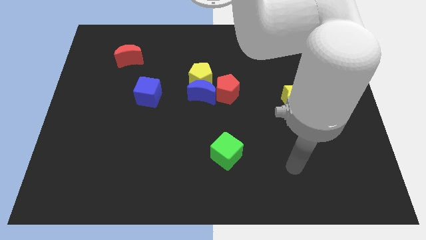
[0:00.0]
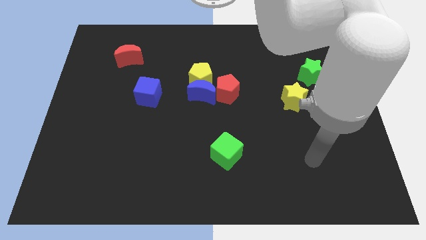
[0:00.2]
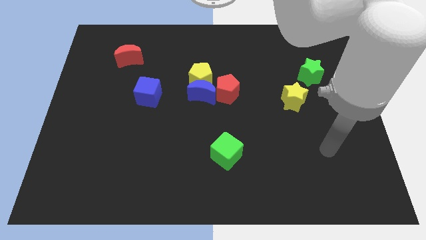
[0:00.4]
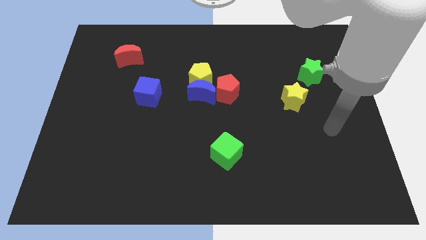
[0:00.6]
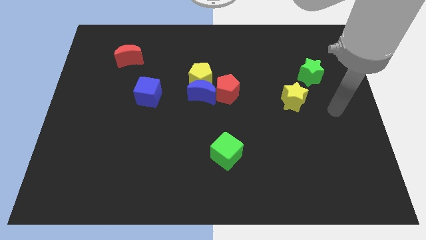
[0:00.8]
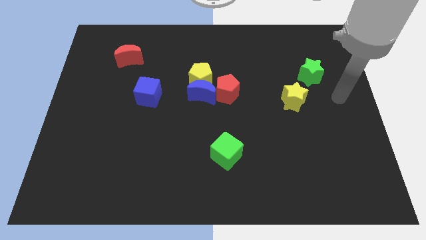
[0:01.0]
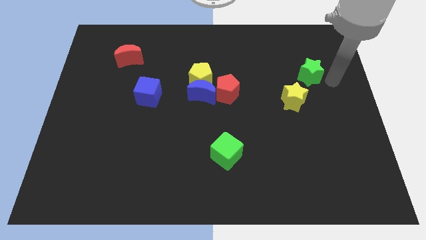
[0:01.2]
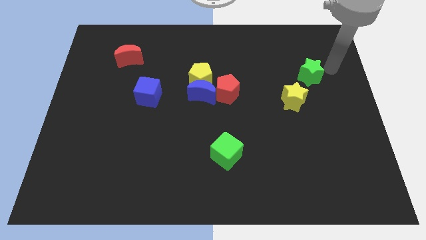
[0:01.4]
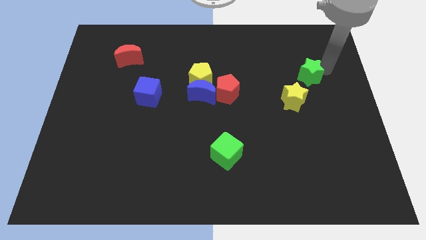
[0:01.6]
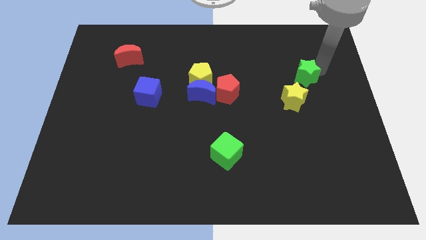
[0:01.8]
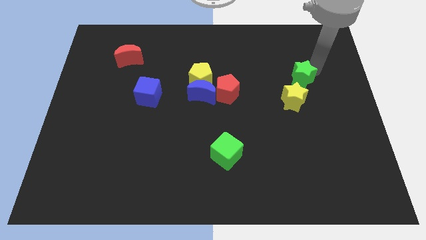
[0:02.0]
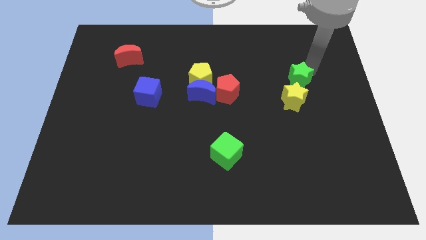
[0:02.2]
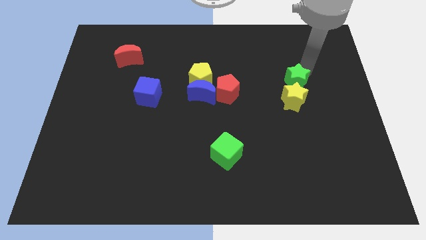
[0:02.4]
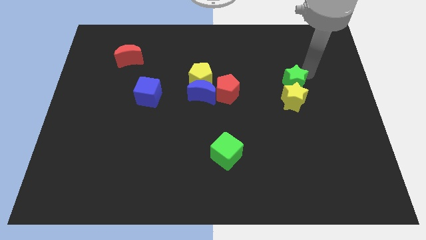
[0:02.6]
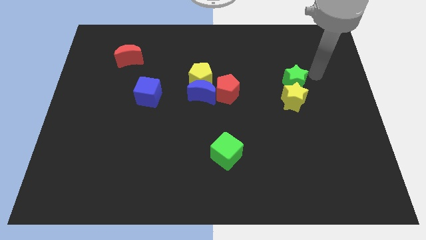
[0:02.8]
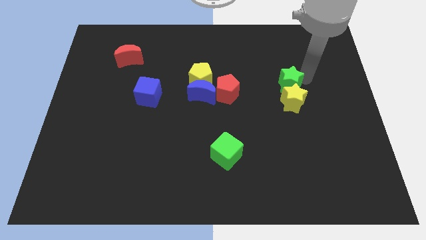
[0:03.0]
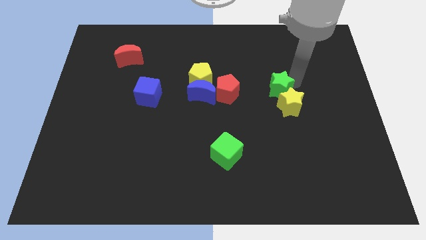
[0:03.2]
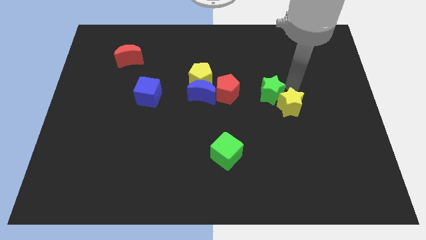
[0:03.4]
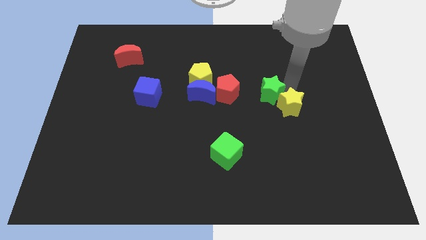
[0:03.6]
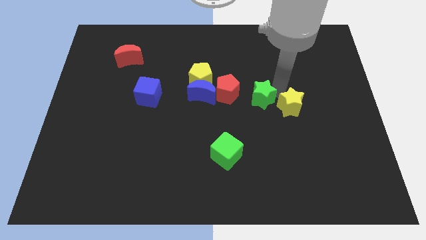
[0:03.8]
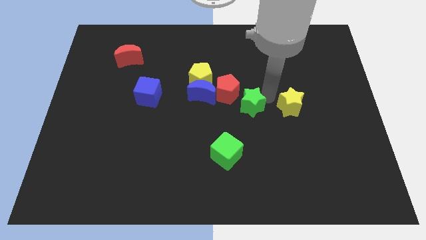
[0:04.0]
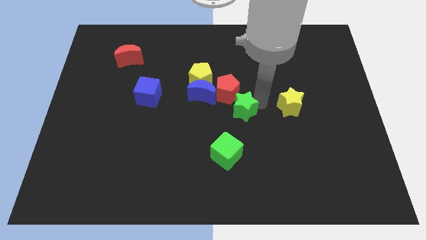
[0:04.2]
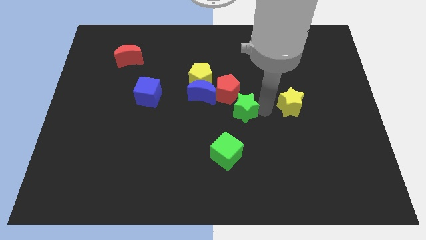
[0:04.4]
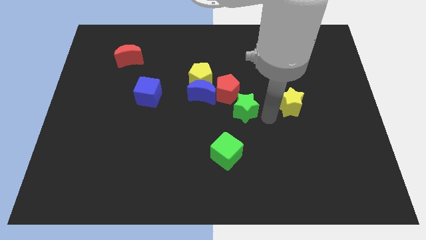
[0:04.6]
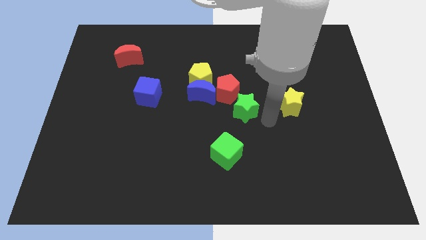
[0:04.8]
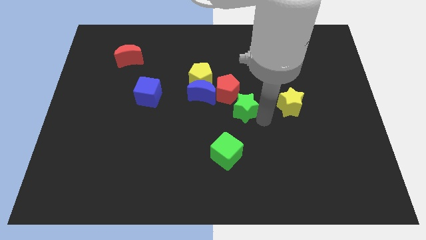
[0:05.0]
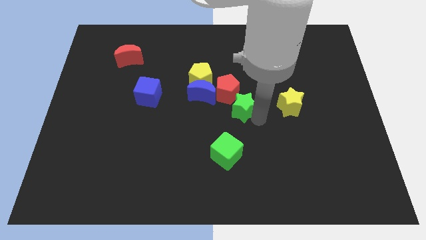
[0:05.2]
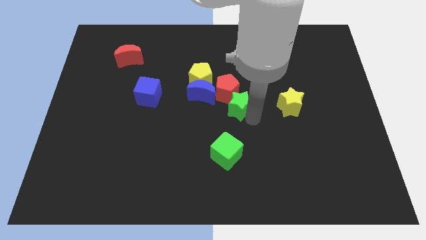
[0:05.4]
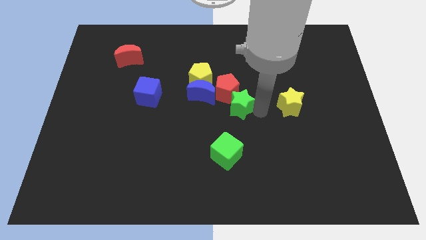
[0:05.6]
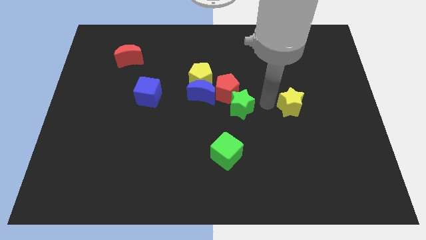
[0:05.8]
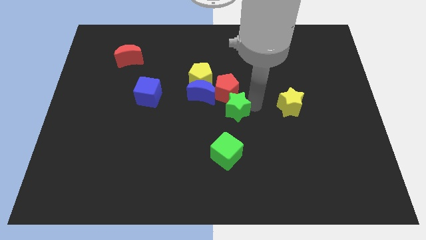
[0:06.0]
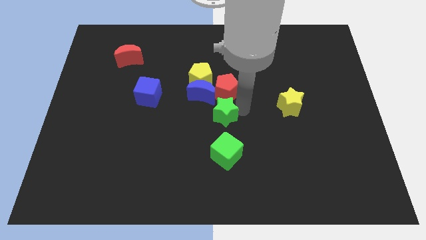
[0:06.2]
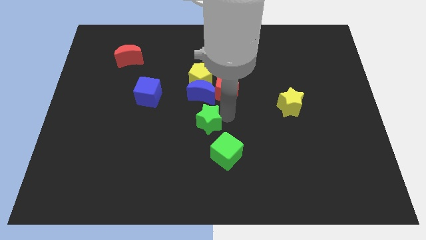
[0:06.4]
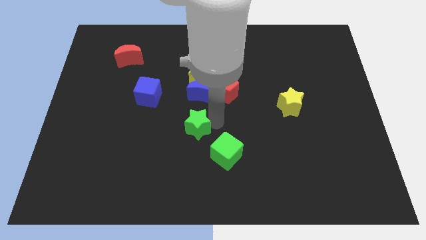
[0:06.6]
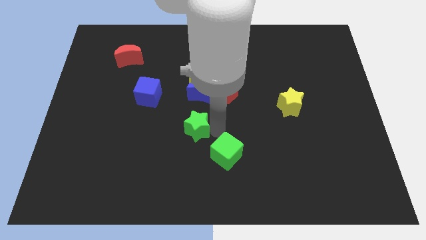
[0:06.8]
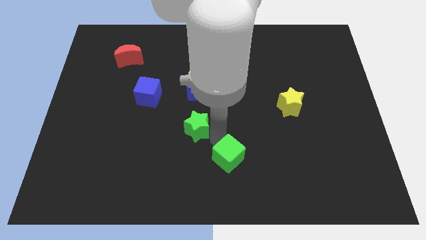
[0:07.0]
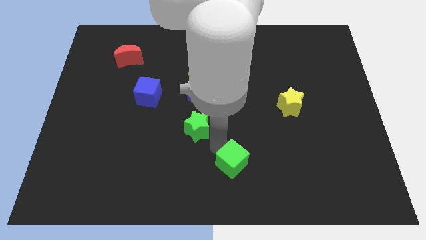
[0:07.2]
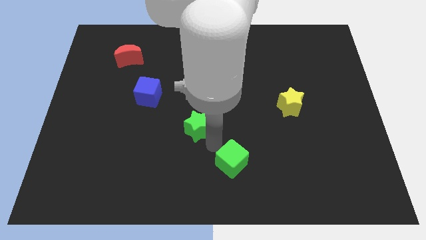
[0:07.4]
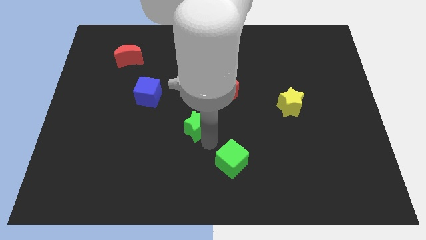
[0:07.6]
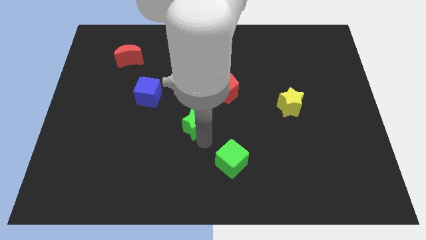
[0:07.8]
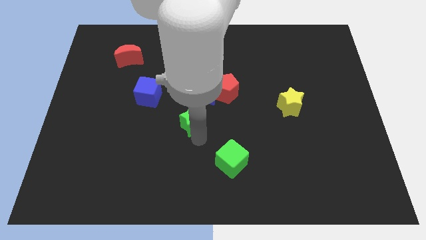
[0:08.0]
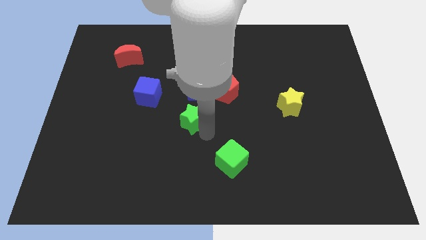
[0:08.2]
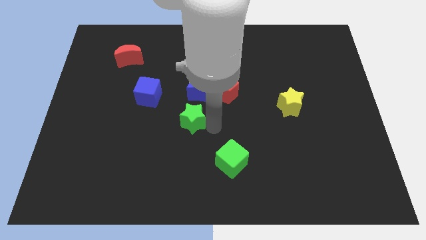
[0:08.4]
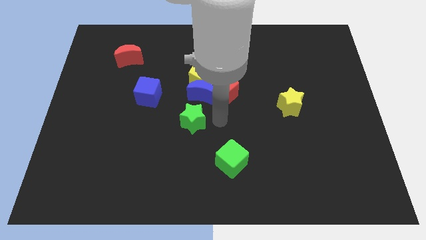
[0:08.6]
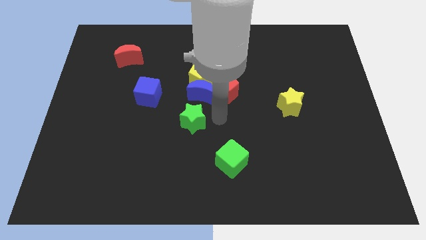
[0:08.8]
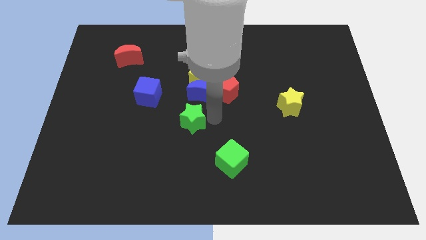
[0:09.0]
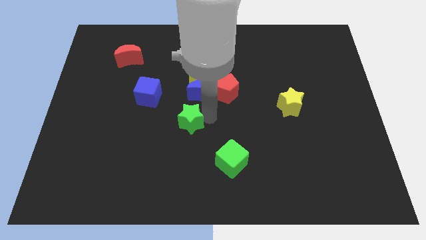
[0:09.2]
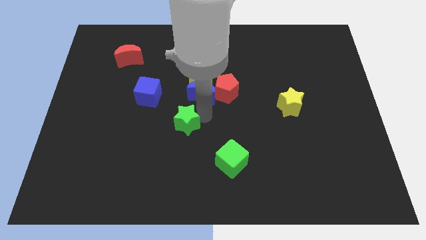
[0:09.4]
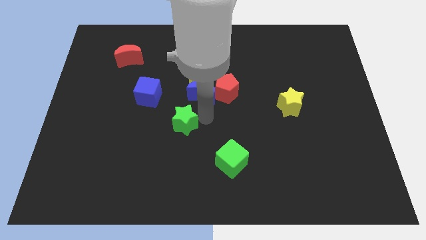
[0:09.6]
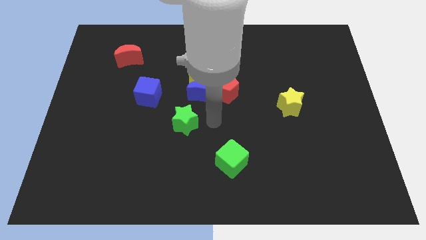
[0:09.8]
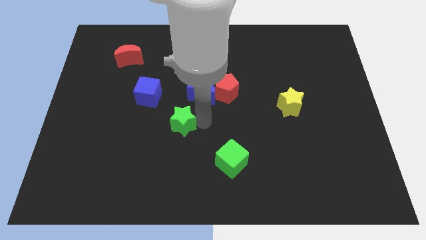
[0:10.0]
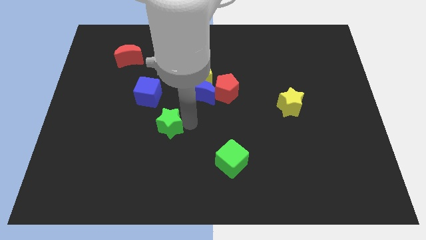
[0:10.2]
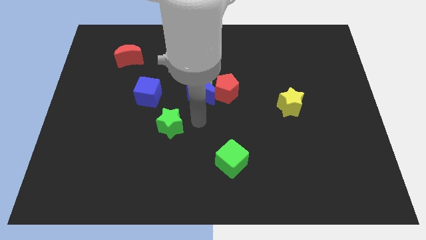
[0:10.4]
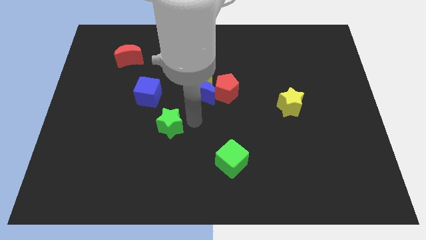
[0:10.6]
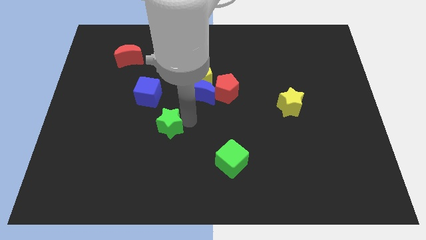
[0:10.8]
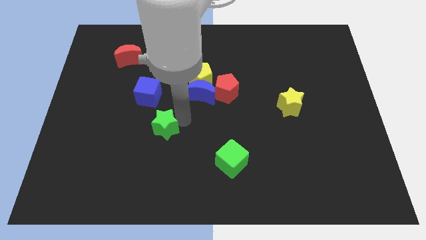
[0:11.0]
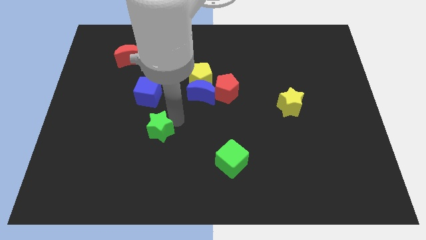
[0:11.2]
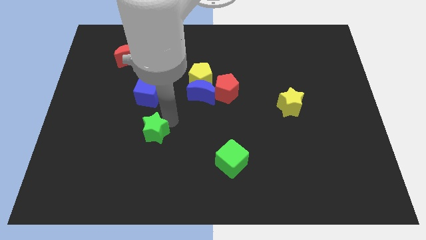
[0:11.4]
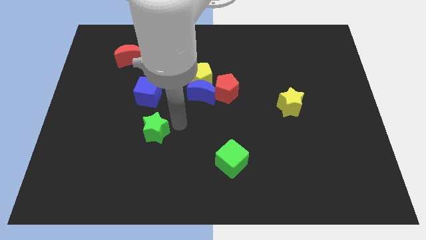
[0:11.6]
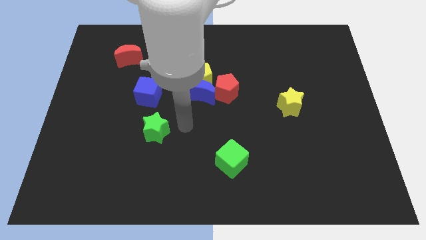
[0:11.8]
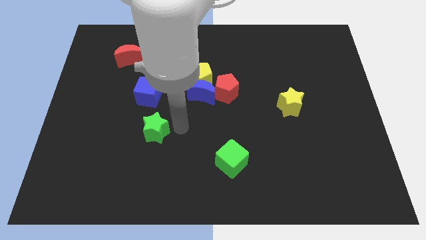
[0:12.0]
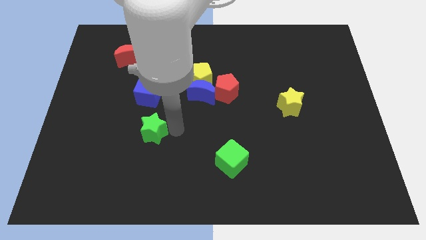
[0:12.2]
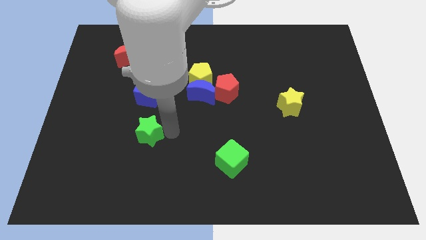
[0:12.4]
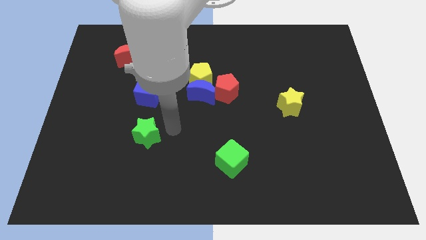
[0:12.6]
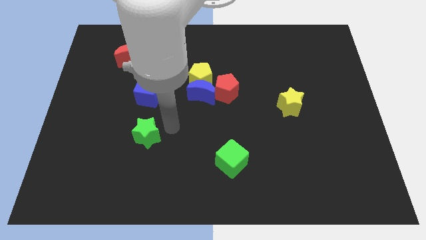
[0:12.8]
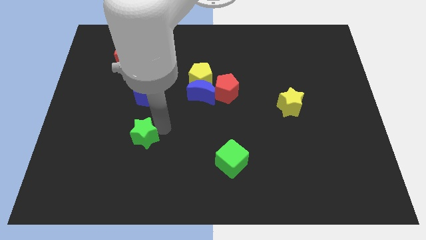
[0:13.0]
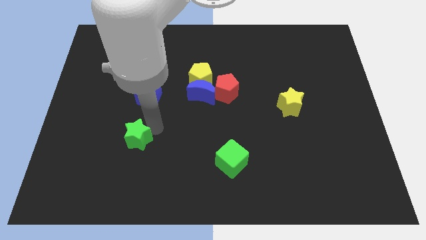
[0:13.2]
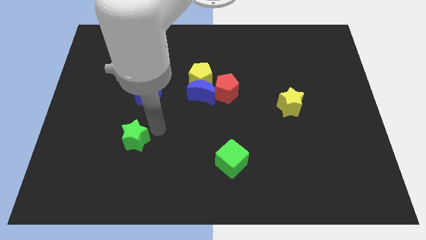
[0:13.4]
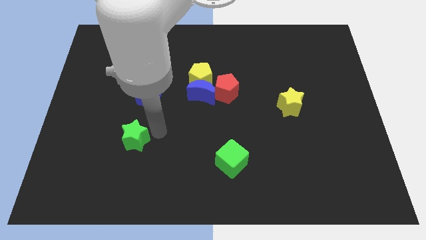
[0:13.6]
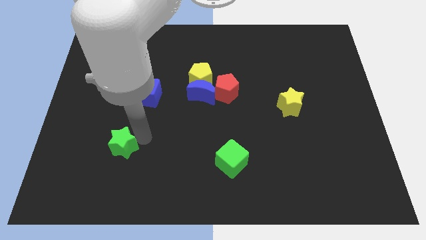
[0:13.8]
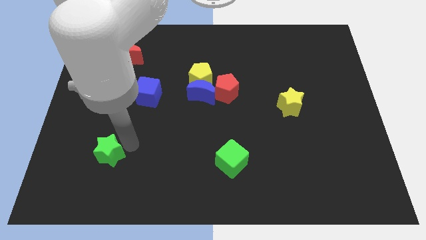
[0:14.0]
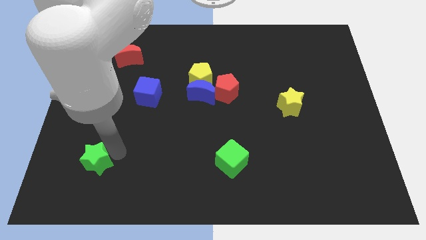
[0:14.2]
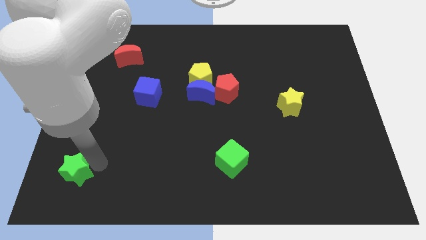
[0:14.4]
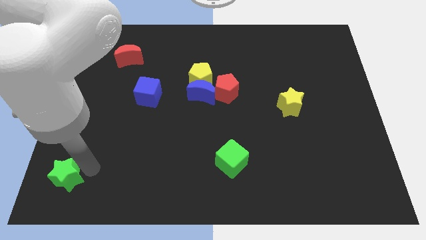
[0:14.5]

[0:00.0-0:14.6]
put the green star to the bottom left
